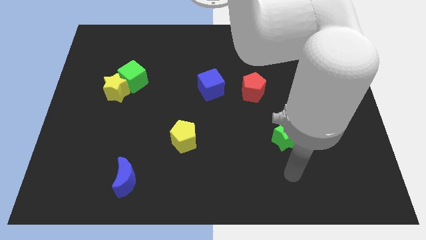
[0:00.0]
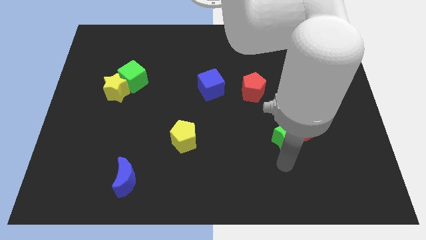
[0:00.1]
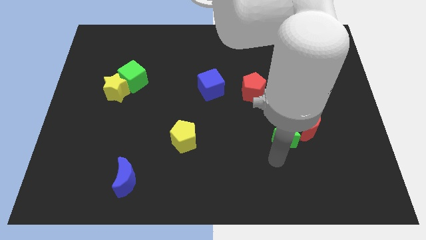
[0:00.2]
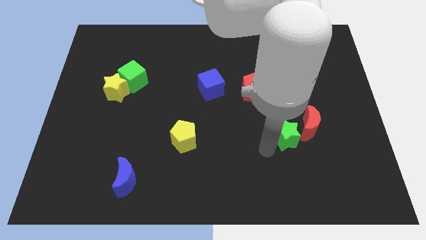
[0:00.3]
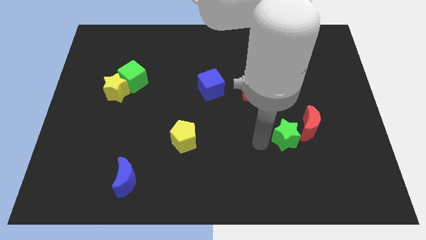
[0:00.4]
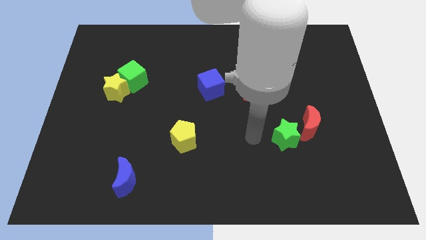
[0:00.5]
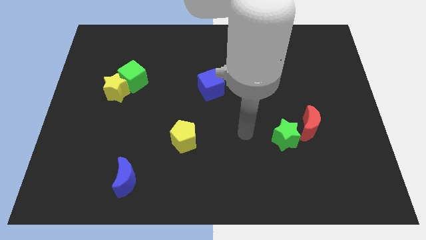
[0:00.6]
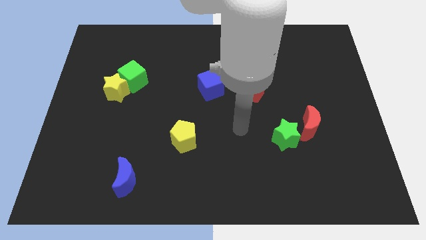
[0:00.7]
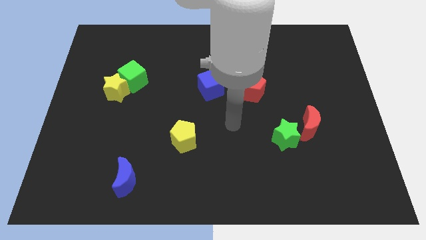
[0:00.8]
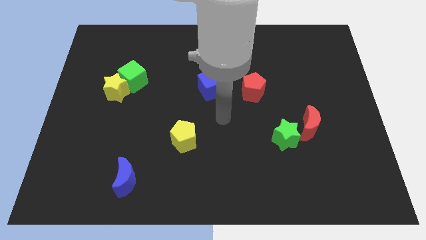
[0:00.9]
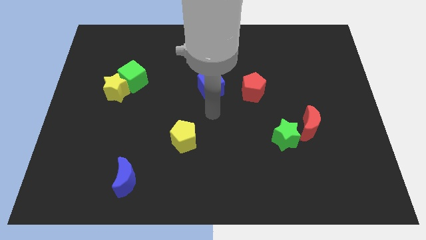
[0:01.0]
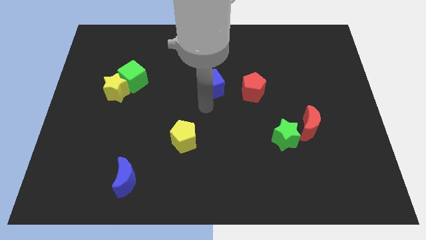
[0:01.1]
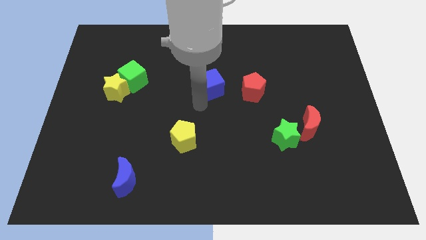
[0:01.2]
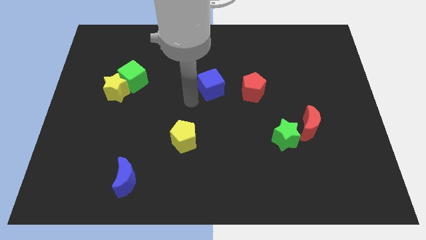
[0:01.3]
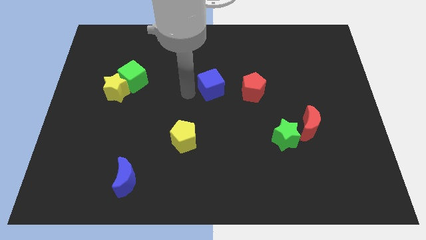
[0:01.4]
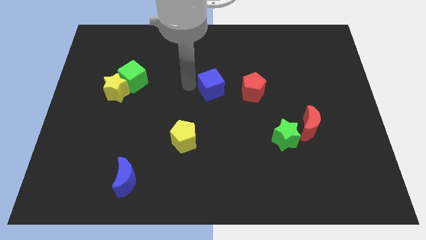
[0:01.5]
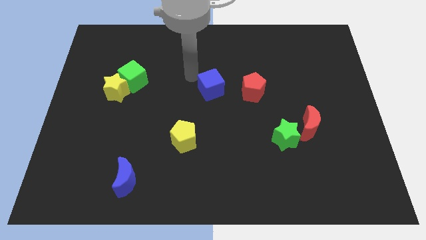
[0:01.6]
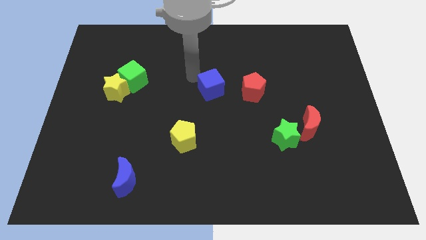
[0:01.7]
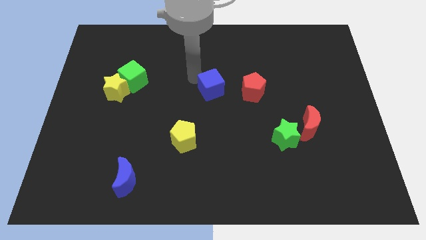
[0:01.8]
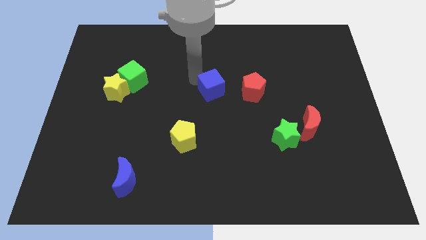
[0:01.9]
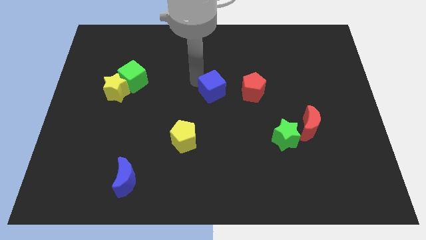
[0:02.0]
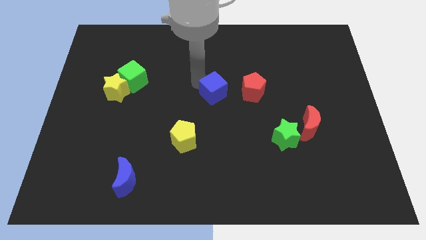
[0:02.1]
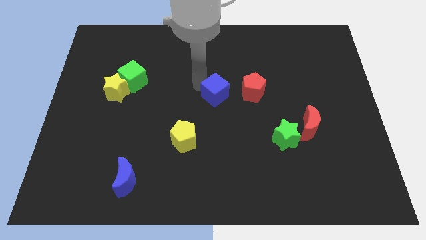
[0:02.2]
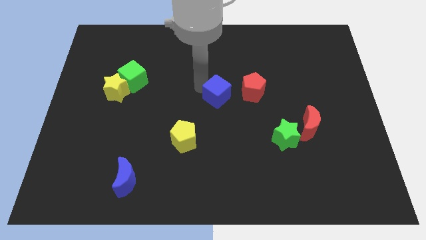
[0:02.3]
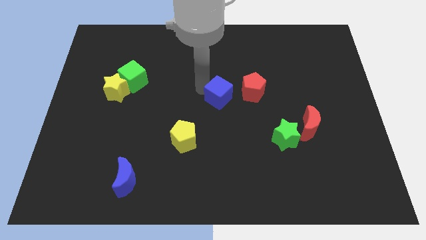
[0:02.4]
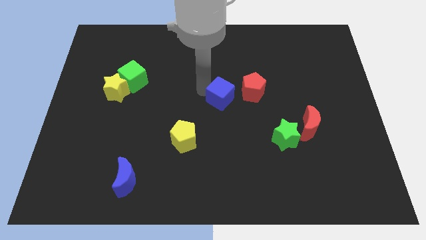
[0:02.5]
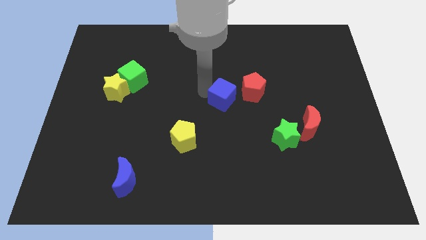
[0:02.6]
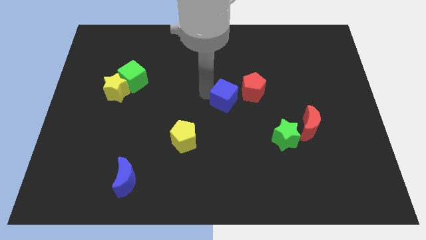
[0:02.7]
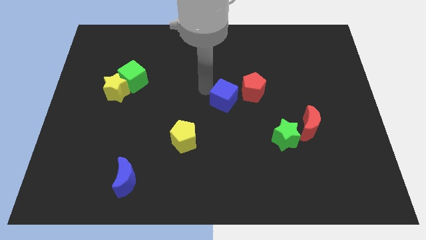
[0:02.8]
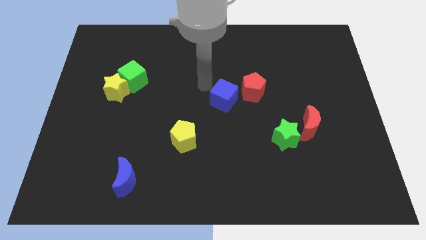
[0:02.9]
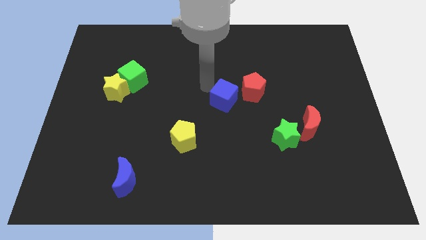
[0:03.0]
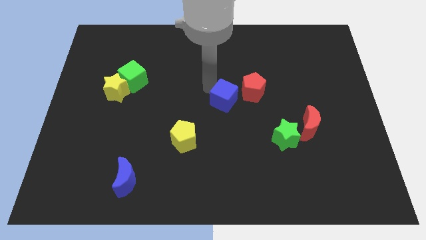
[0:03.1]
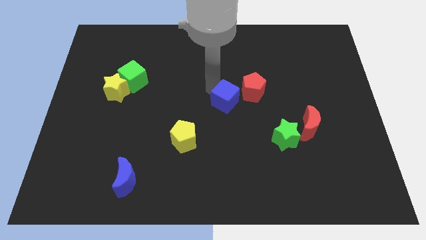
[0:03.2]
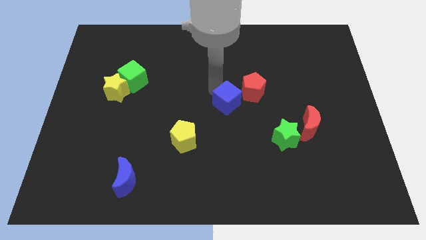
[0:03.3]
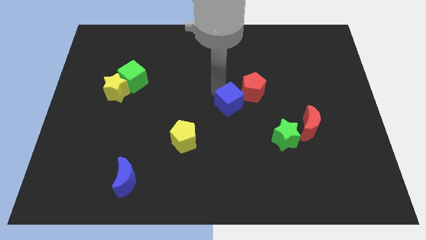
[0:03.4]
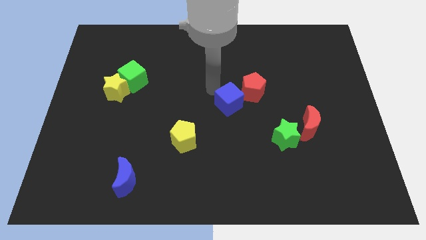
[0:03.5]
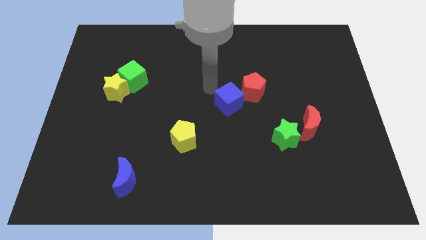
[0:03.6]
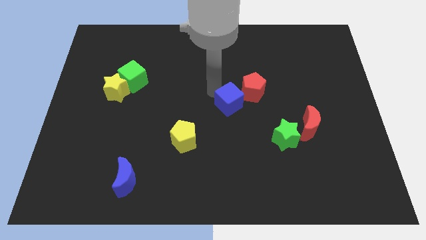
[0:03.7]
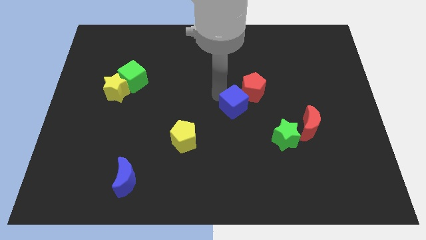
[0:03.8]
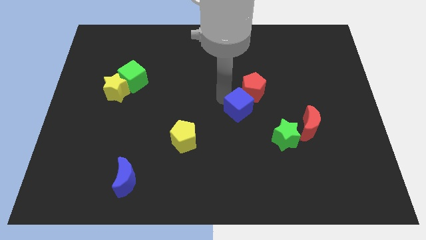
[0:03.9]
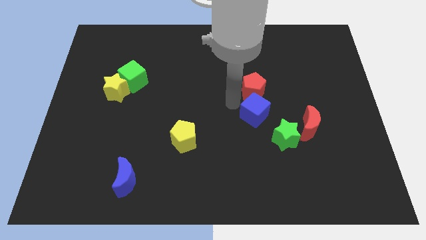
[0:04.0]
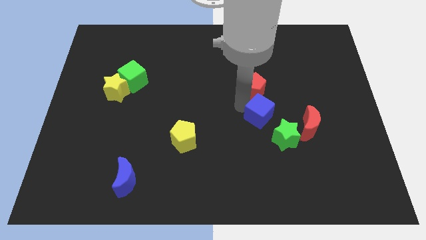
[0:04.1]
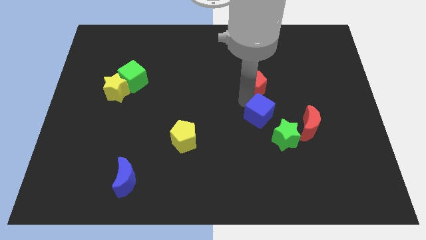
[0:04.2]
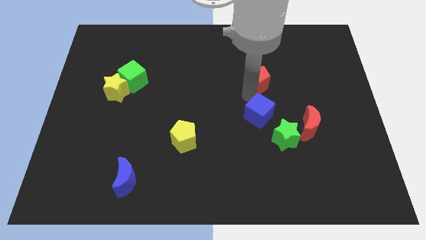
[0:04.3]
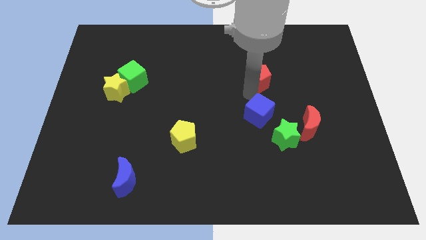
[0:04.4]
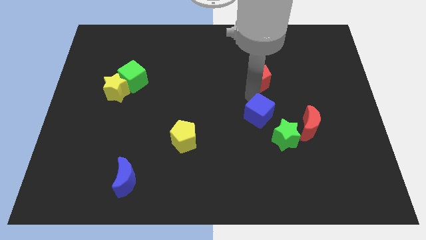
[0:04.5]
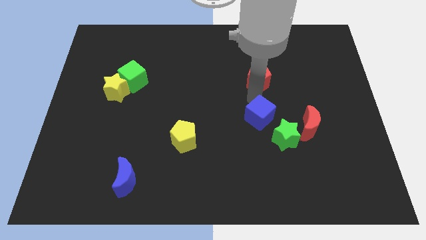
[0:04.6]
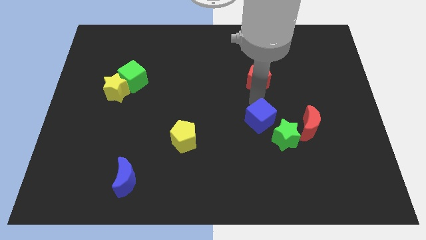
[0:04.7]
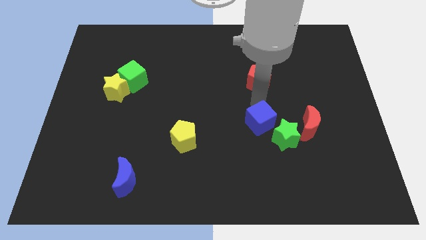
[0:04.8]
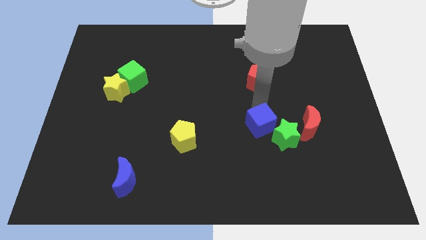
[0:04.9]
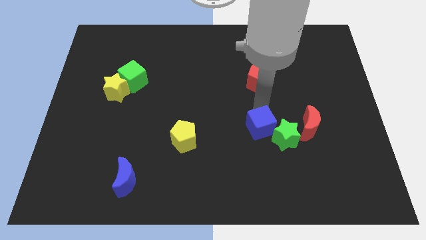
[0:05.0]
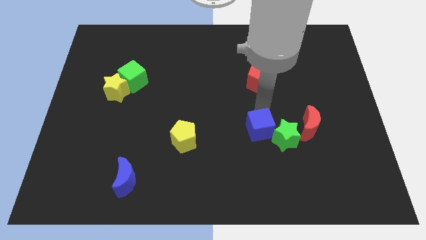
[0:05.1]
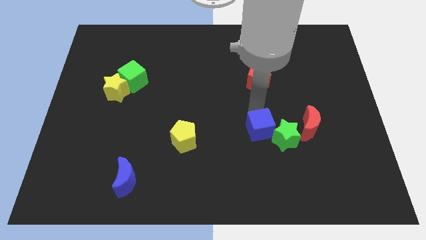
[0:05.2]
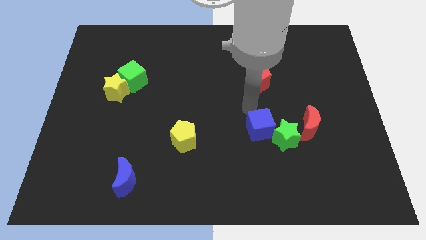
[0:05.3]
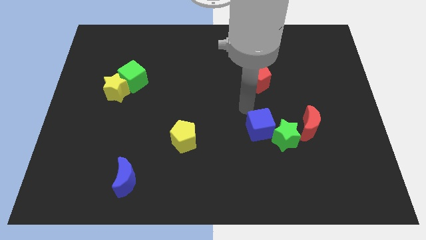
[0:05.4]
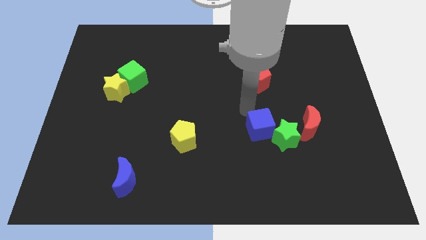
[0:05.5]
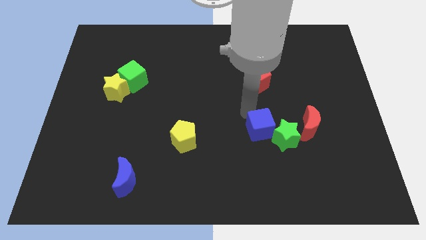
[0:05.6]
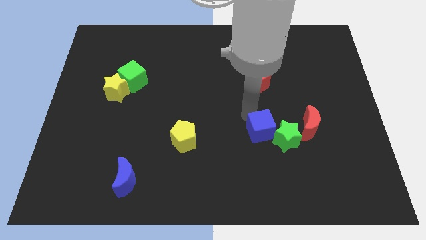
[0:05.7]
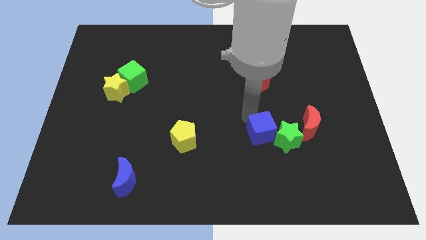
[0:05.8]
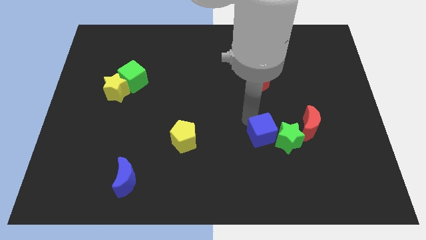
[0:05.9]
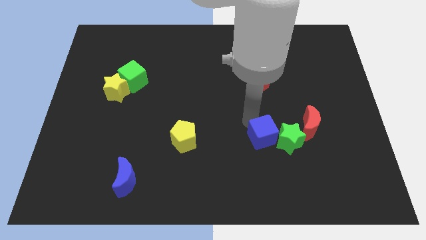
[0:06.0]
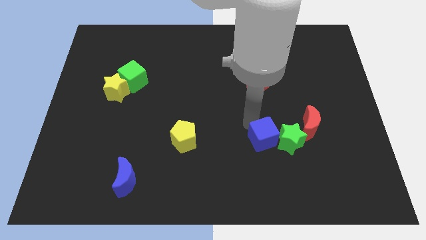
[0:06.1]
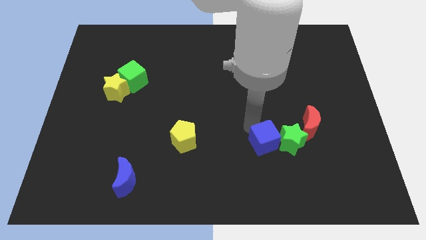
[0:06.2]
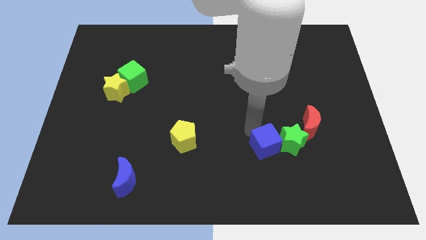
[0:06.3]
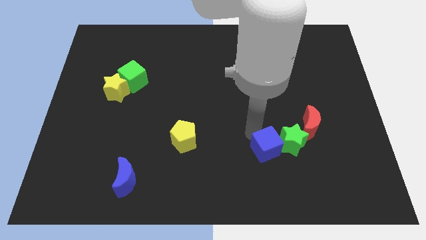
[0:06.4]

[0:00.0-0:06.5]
move the blue cube downwards and to the right diagonally

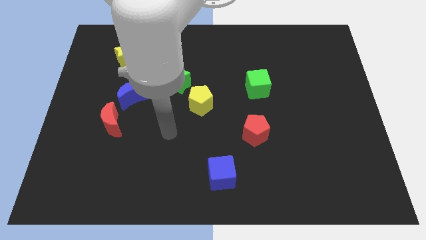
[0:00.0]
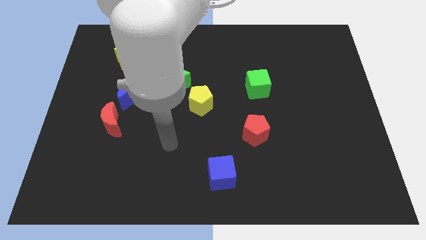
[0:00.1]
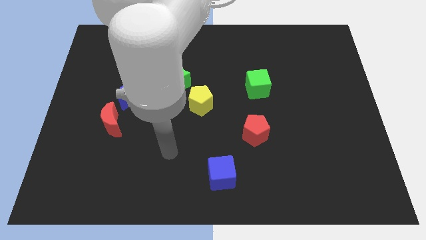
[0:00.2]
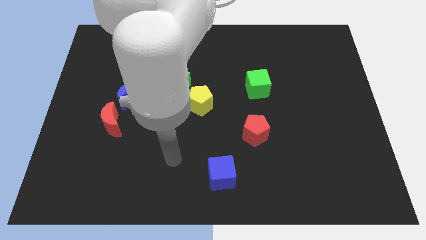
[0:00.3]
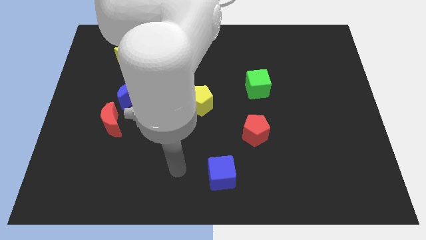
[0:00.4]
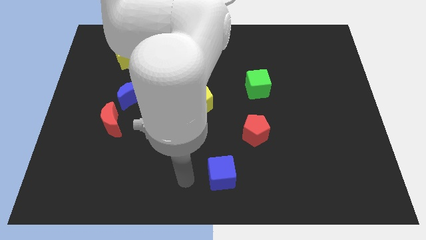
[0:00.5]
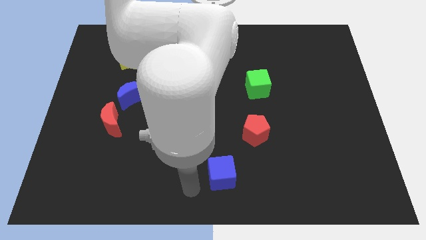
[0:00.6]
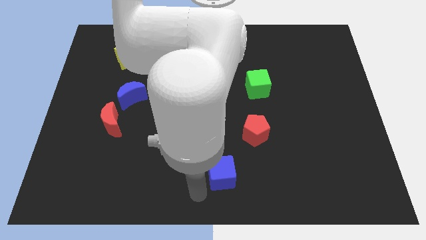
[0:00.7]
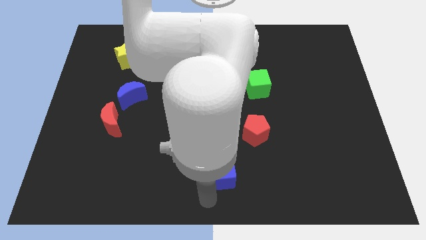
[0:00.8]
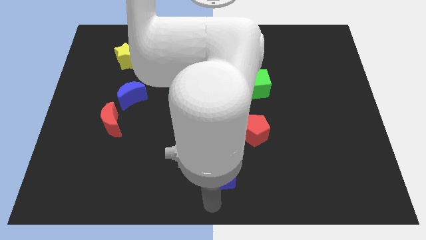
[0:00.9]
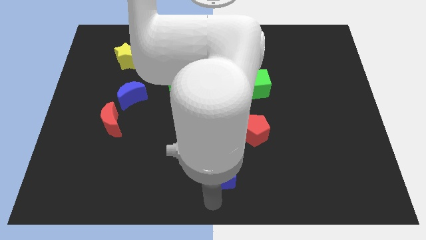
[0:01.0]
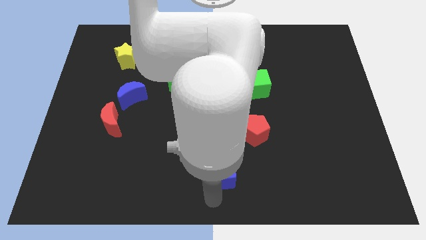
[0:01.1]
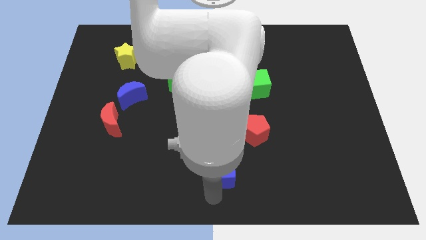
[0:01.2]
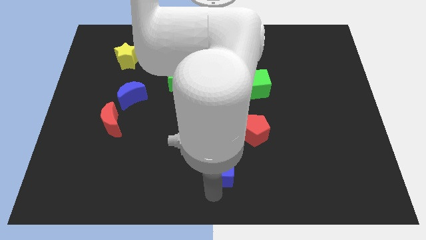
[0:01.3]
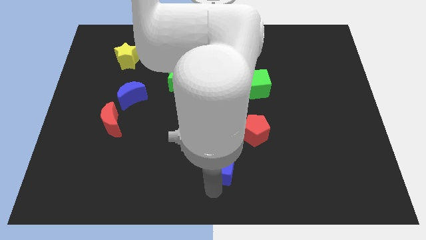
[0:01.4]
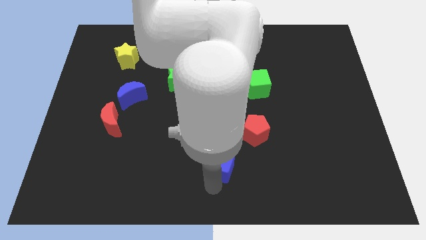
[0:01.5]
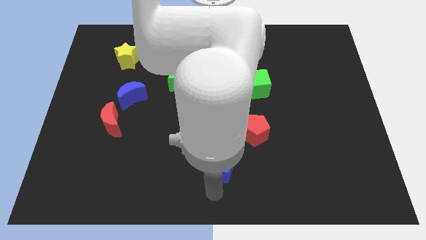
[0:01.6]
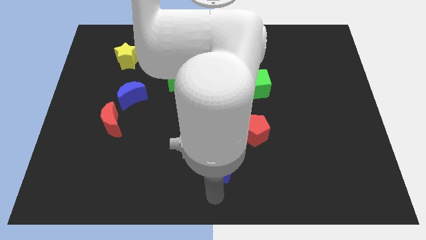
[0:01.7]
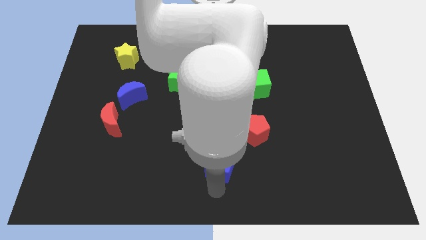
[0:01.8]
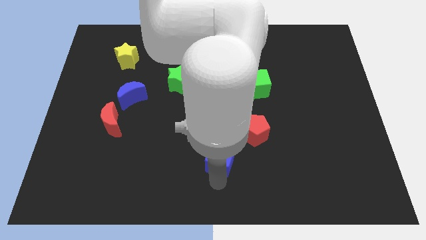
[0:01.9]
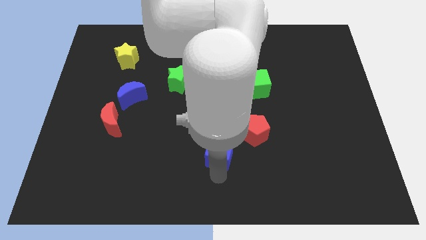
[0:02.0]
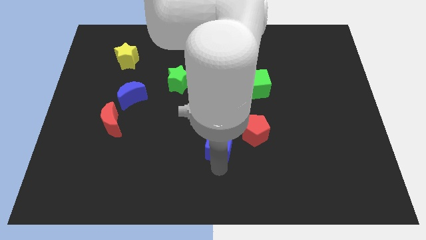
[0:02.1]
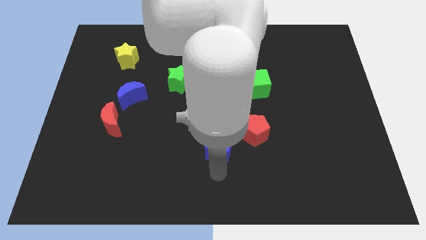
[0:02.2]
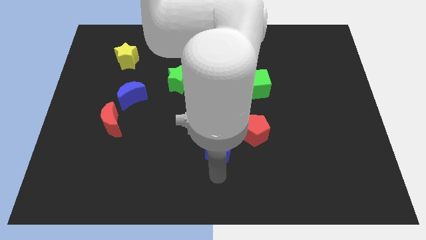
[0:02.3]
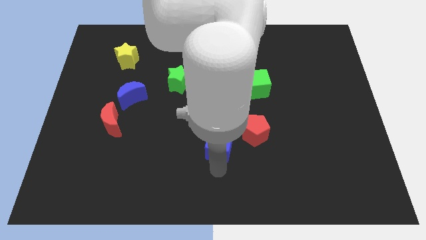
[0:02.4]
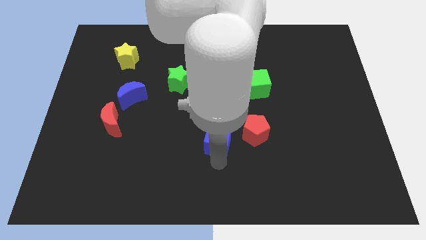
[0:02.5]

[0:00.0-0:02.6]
slightly slide the blue cube upwards
